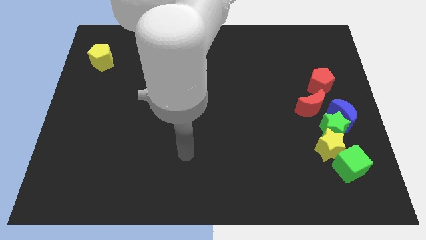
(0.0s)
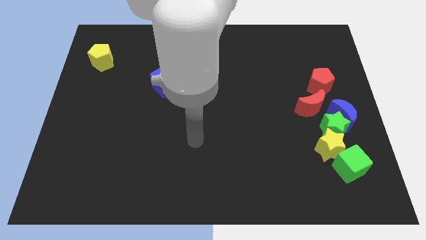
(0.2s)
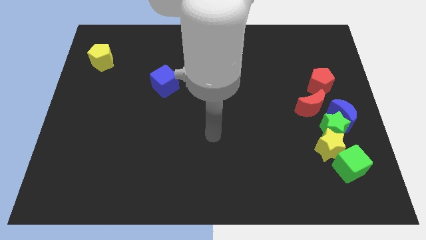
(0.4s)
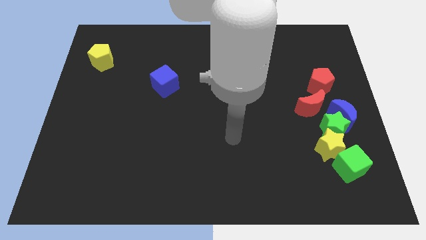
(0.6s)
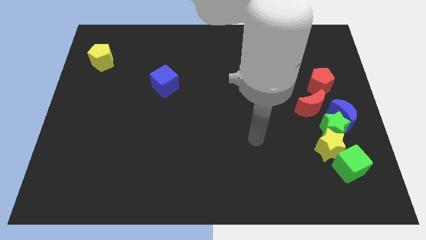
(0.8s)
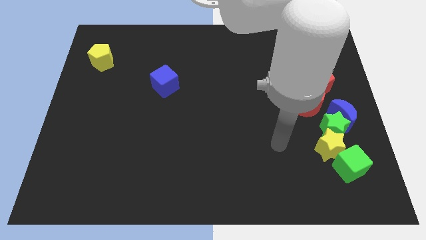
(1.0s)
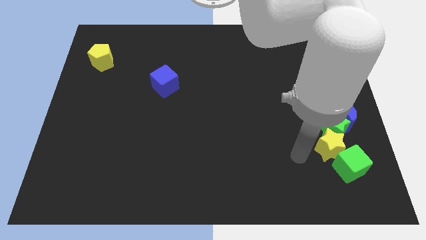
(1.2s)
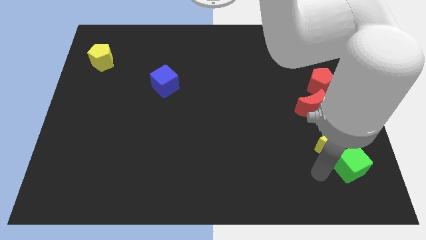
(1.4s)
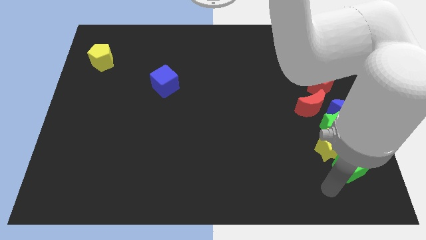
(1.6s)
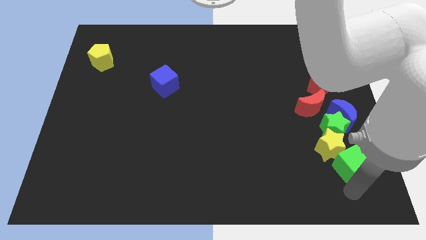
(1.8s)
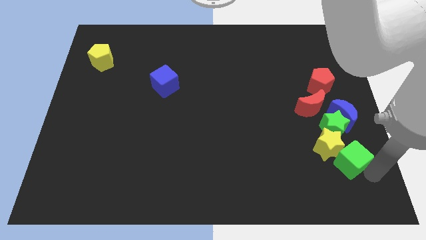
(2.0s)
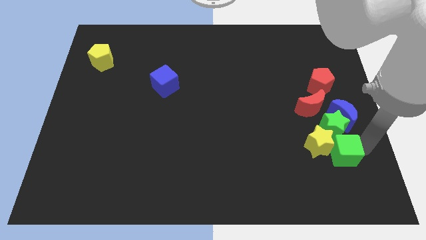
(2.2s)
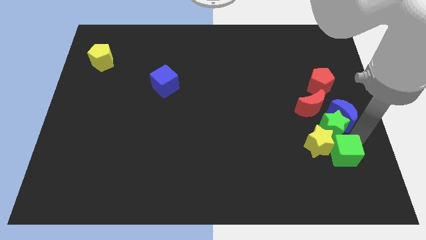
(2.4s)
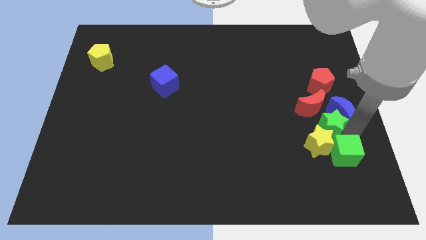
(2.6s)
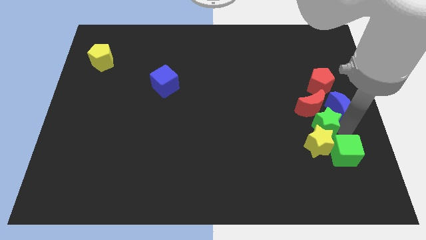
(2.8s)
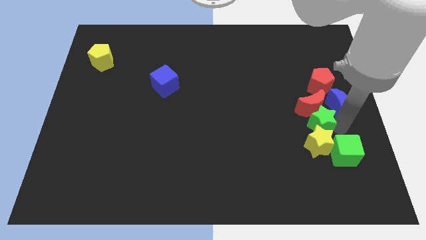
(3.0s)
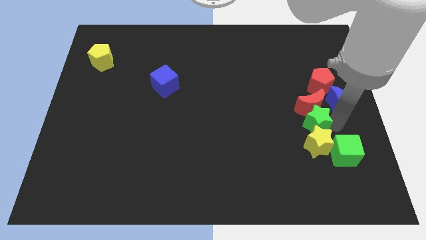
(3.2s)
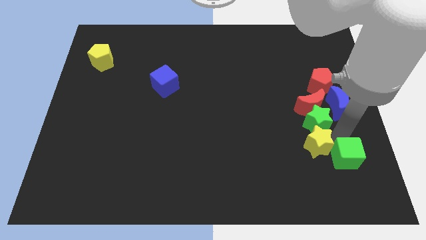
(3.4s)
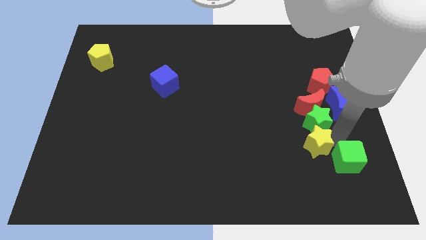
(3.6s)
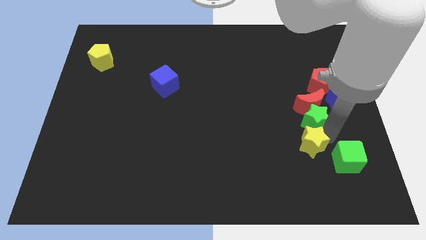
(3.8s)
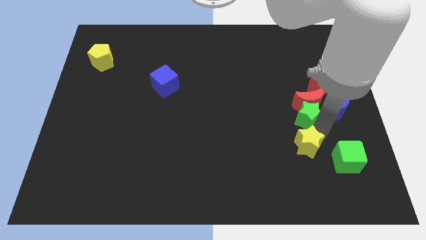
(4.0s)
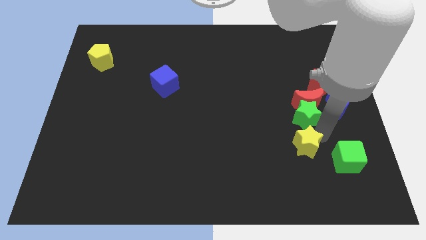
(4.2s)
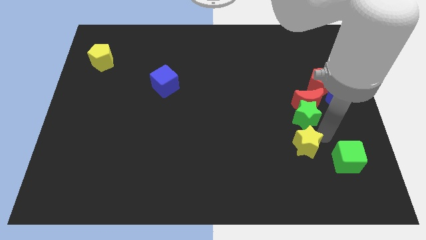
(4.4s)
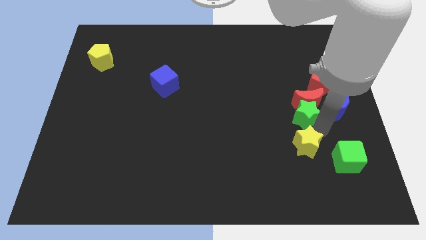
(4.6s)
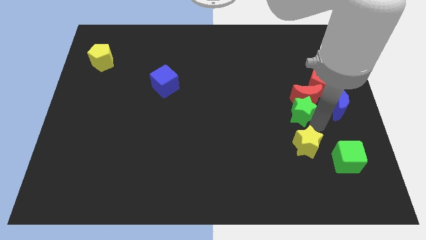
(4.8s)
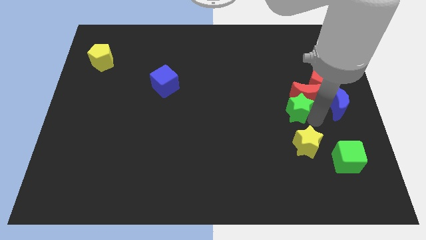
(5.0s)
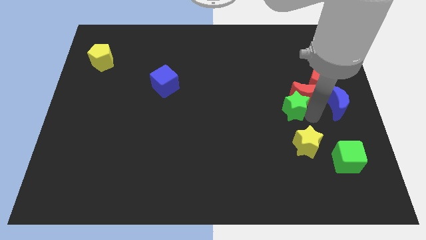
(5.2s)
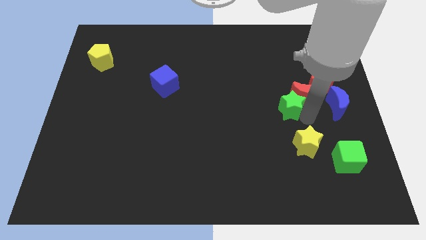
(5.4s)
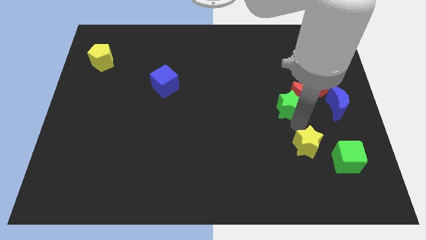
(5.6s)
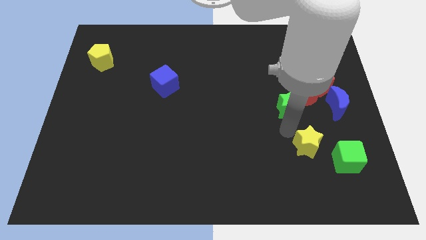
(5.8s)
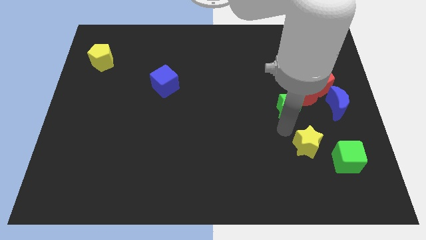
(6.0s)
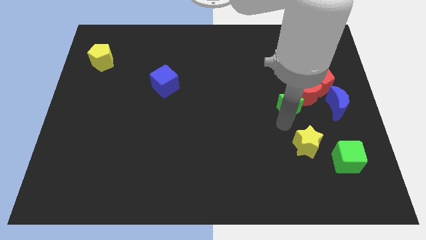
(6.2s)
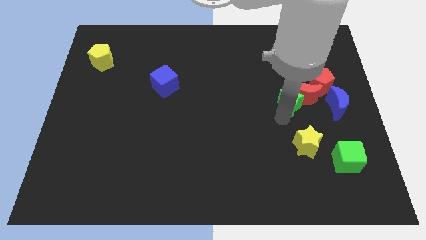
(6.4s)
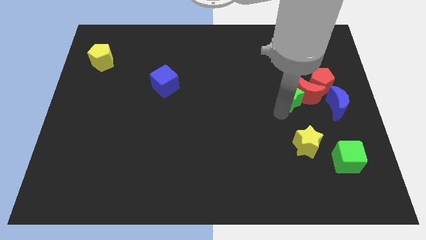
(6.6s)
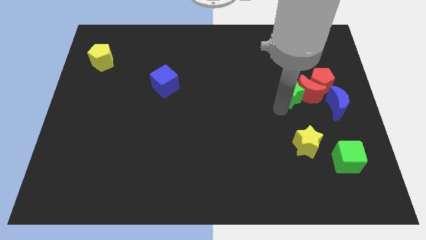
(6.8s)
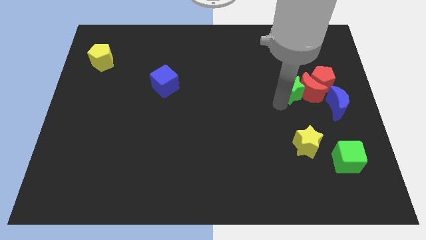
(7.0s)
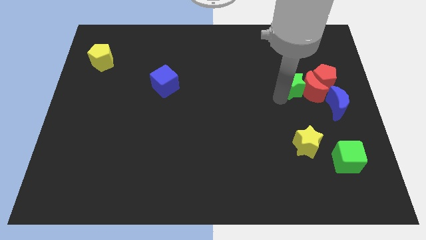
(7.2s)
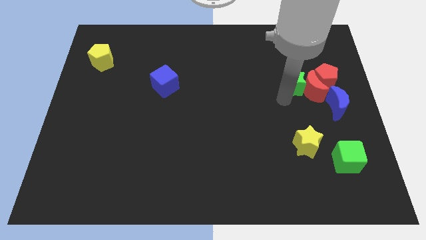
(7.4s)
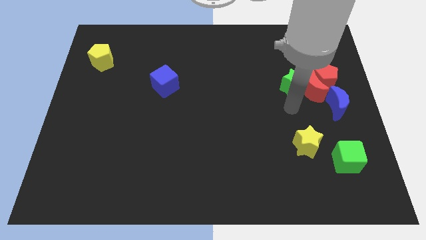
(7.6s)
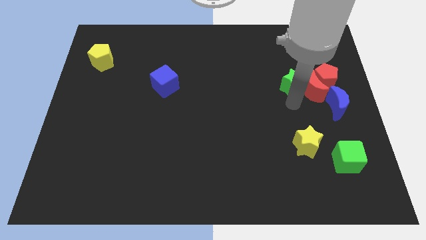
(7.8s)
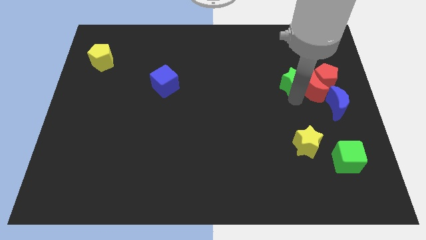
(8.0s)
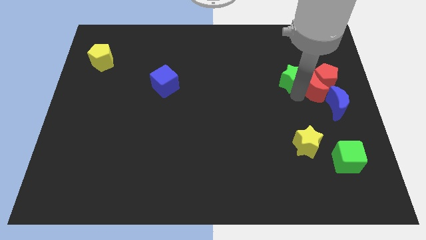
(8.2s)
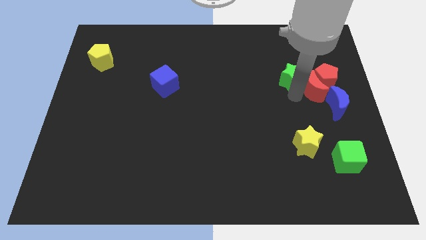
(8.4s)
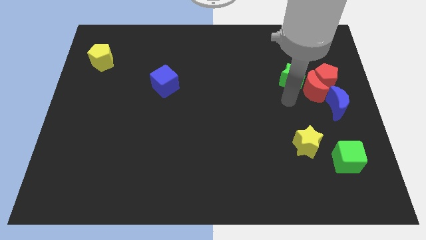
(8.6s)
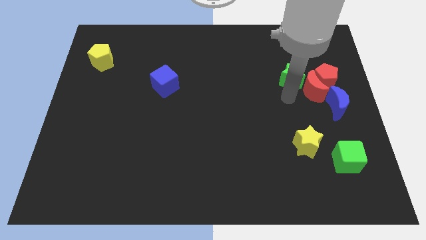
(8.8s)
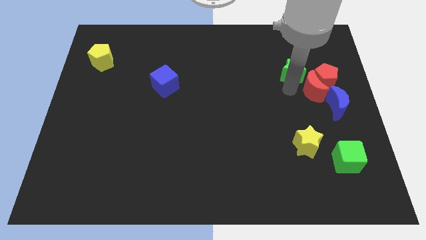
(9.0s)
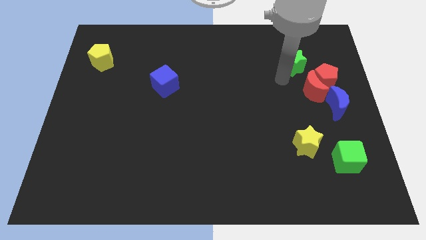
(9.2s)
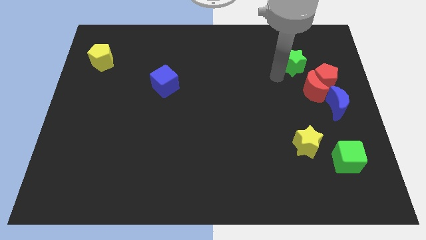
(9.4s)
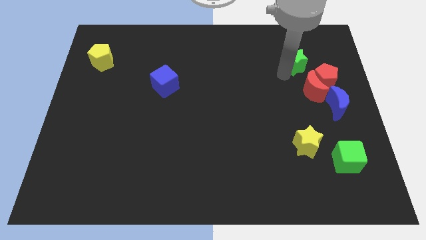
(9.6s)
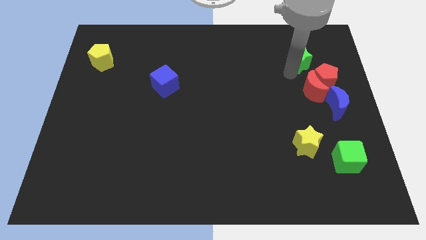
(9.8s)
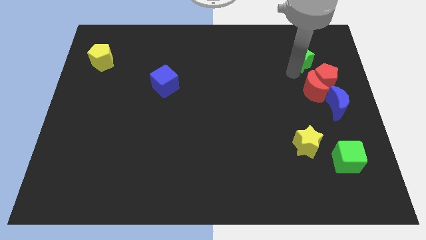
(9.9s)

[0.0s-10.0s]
move the green star to the top of the red pentagon

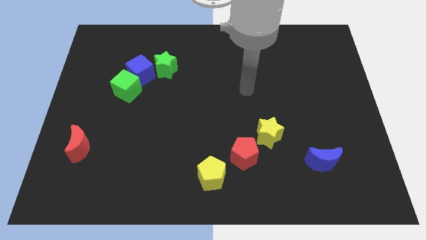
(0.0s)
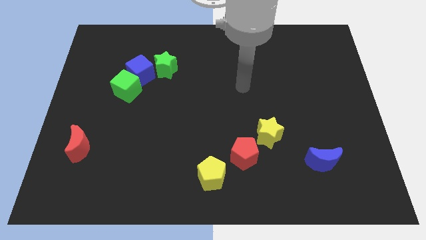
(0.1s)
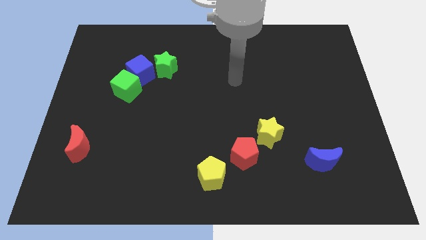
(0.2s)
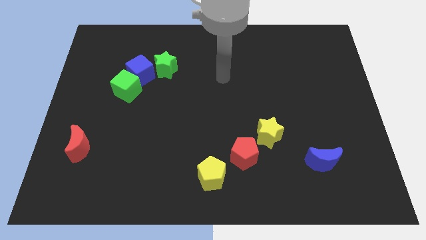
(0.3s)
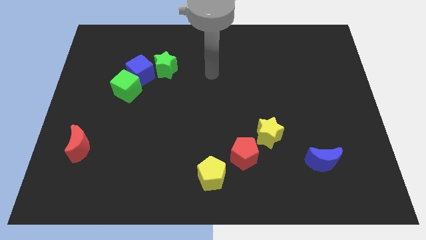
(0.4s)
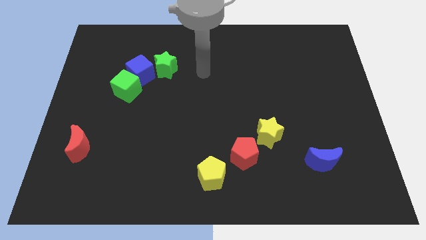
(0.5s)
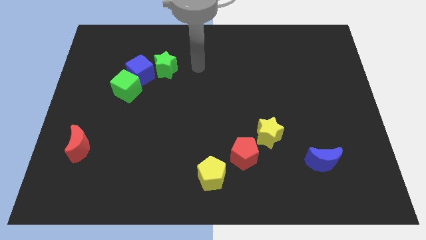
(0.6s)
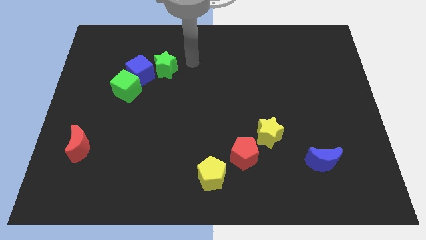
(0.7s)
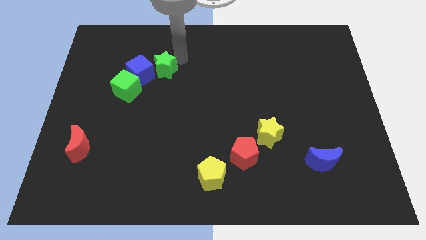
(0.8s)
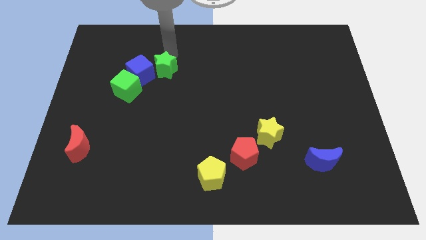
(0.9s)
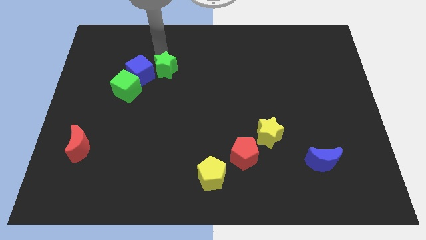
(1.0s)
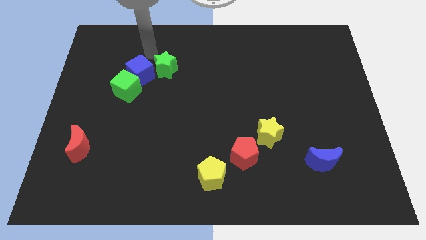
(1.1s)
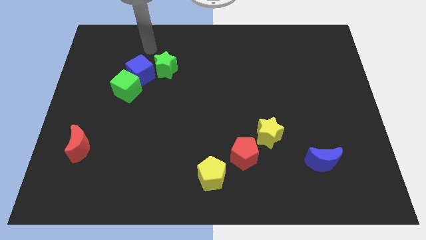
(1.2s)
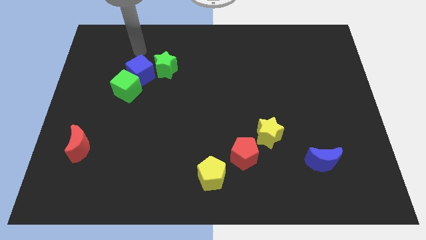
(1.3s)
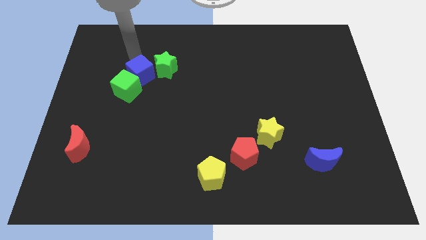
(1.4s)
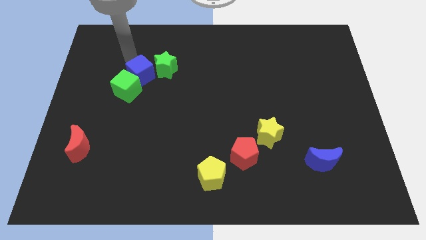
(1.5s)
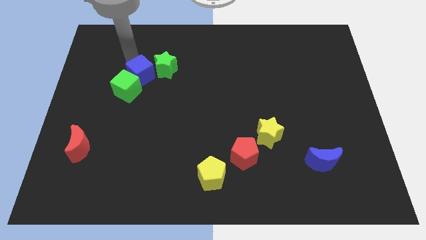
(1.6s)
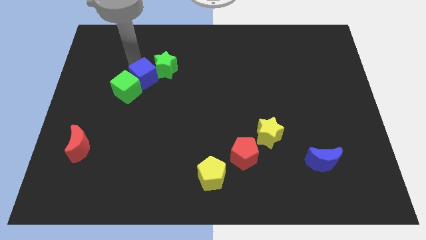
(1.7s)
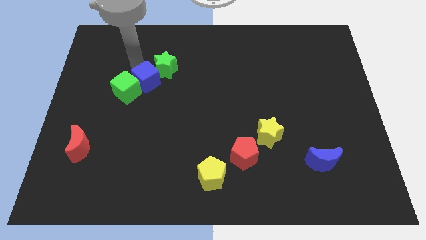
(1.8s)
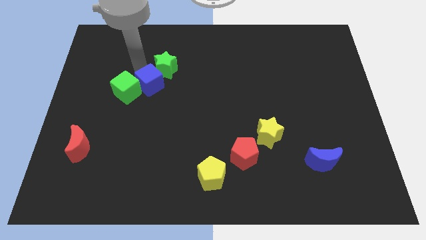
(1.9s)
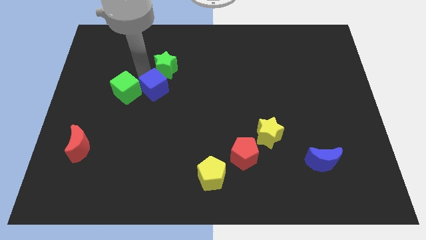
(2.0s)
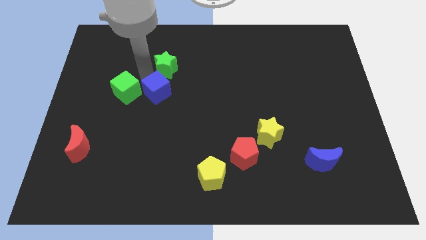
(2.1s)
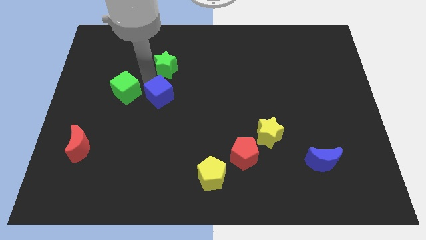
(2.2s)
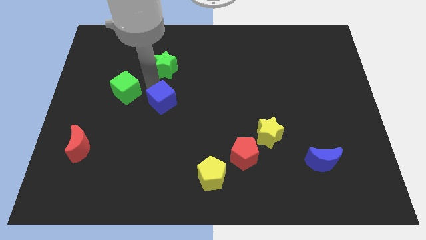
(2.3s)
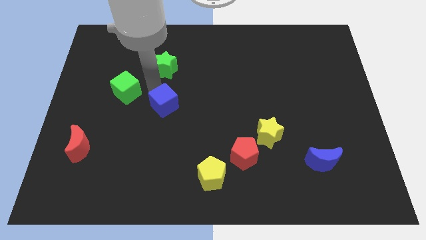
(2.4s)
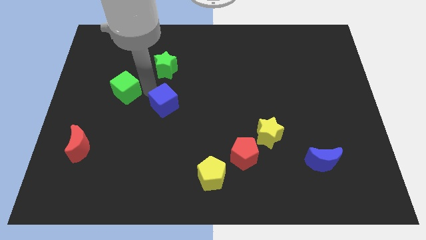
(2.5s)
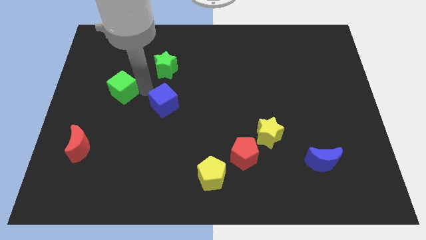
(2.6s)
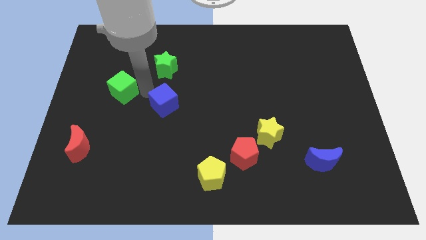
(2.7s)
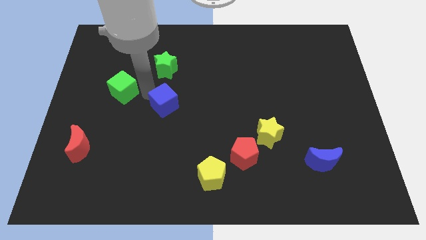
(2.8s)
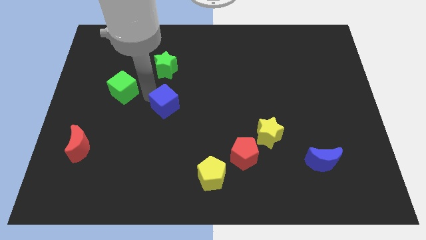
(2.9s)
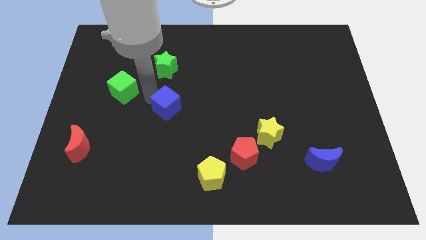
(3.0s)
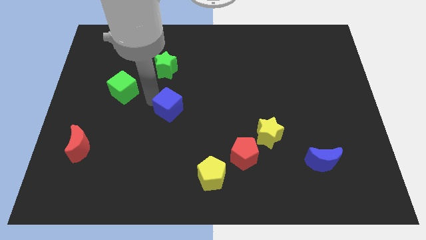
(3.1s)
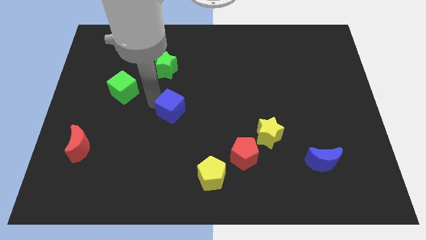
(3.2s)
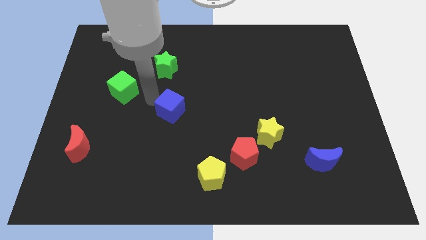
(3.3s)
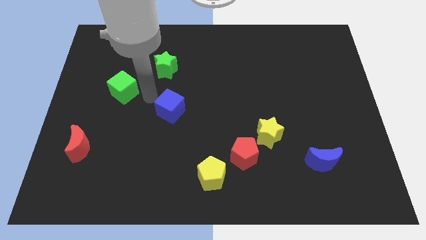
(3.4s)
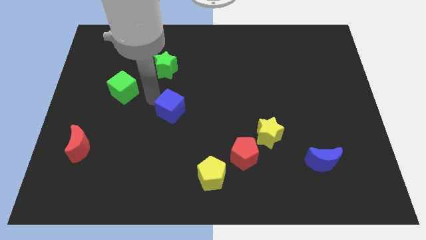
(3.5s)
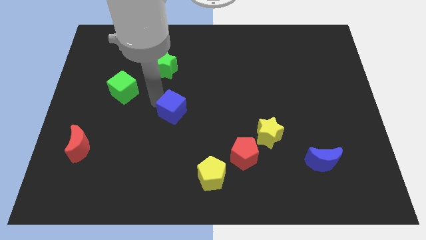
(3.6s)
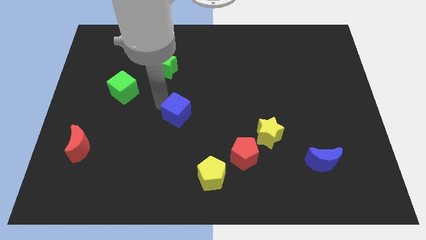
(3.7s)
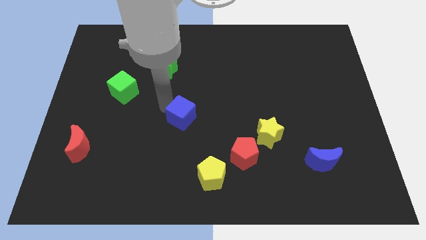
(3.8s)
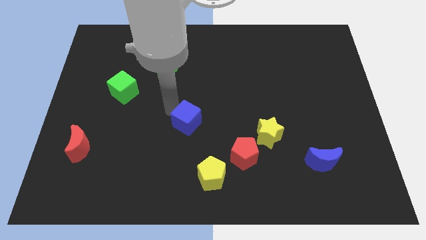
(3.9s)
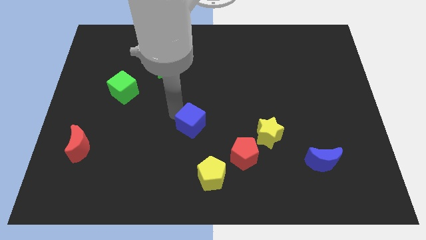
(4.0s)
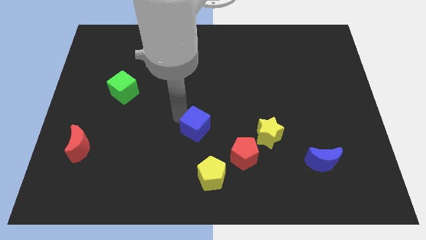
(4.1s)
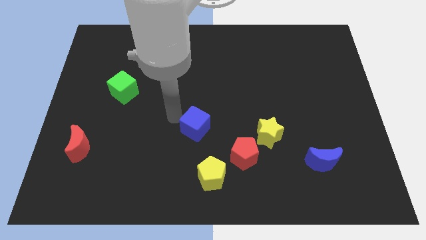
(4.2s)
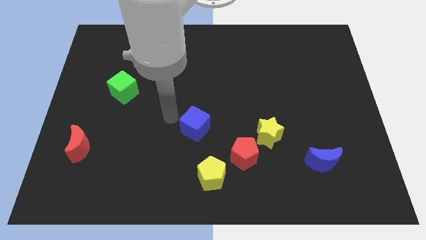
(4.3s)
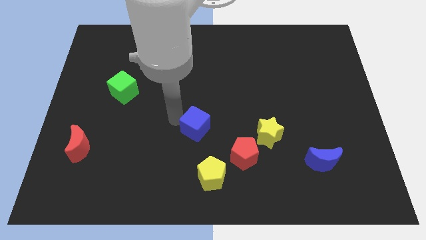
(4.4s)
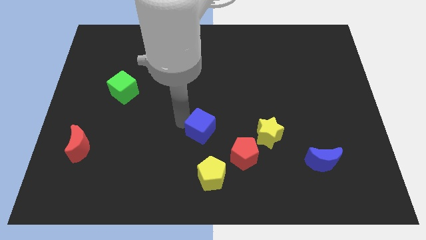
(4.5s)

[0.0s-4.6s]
slide the blue cube to the top left side of the red pentagon
